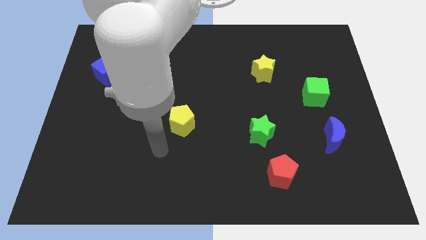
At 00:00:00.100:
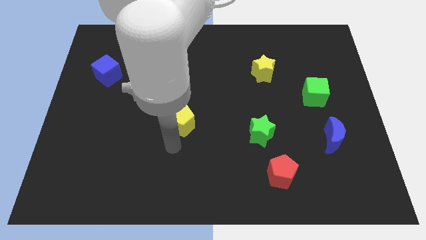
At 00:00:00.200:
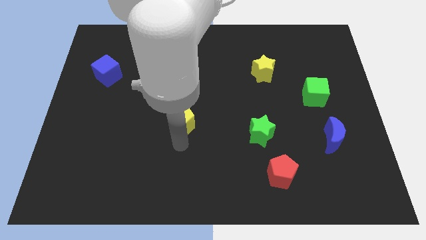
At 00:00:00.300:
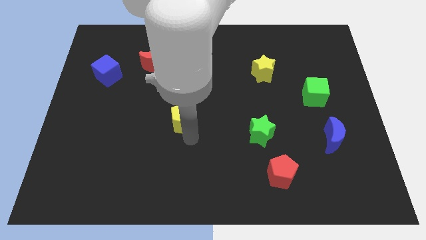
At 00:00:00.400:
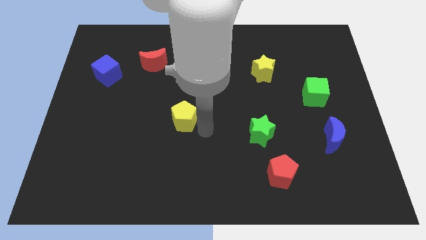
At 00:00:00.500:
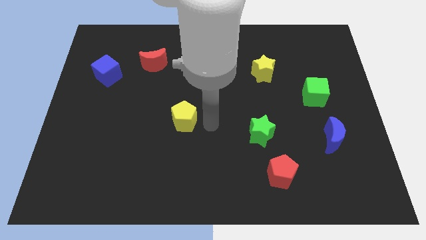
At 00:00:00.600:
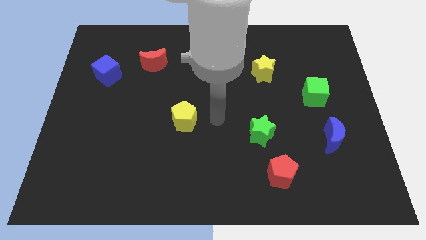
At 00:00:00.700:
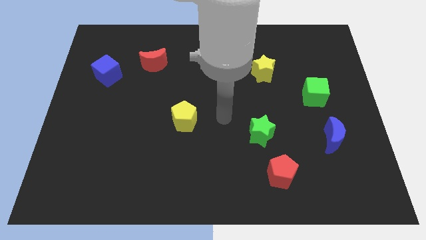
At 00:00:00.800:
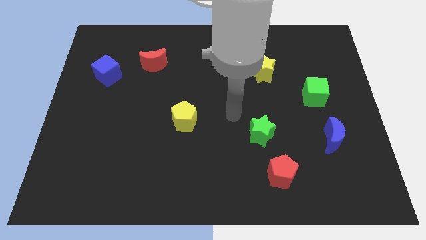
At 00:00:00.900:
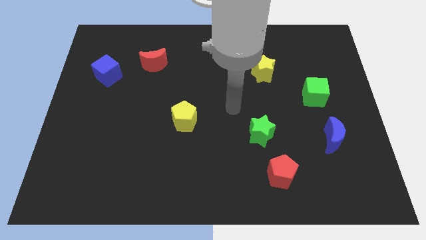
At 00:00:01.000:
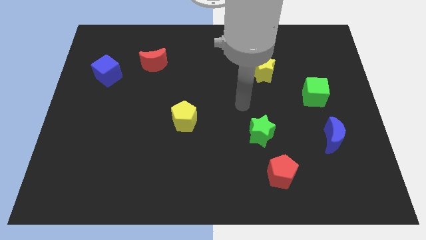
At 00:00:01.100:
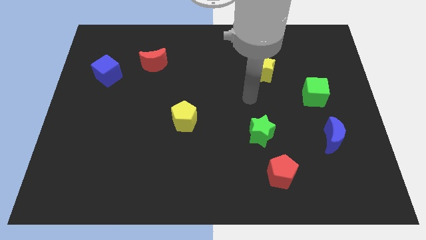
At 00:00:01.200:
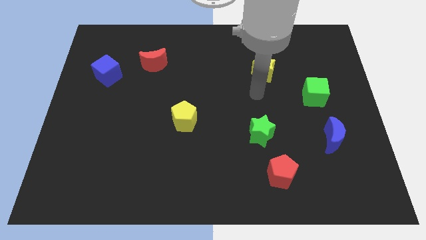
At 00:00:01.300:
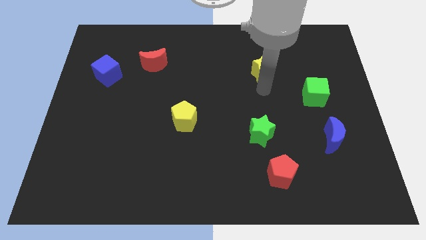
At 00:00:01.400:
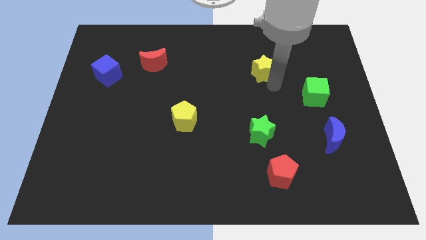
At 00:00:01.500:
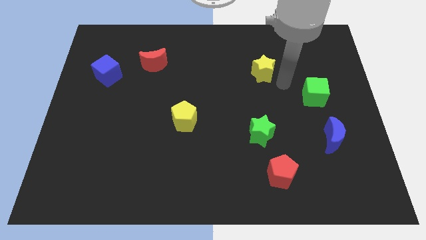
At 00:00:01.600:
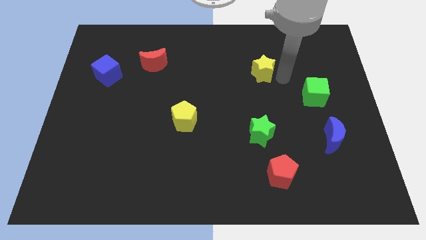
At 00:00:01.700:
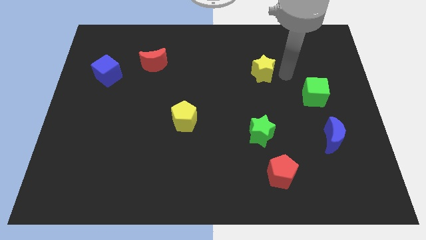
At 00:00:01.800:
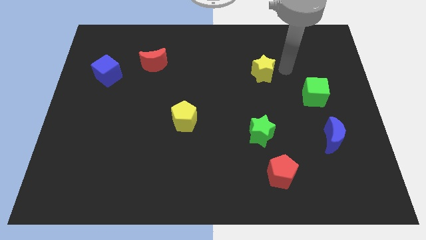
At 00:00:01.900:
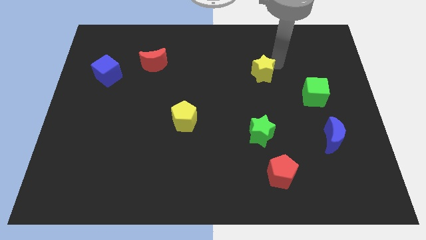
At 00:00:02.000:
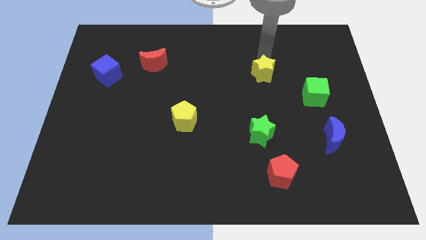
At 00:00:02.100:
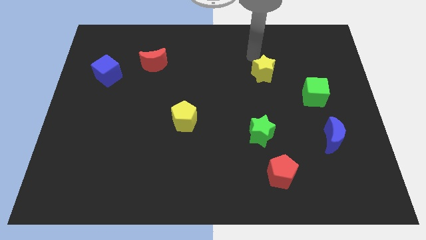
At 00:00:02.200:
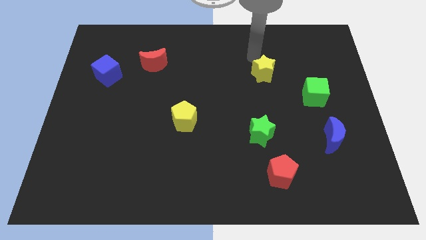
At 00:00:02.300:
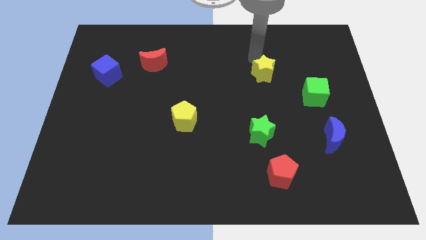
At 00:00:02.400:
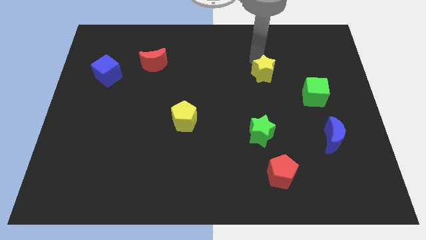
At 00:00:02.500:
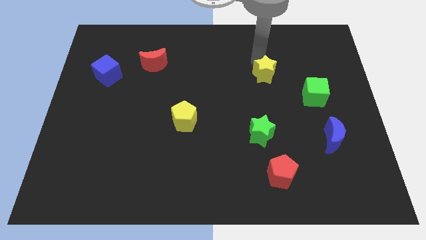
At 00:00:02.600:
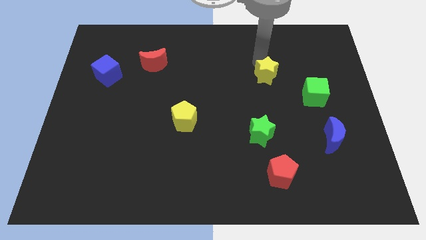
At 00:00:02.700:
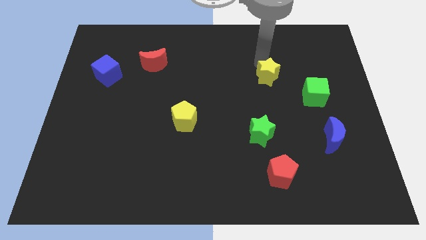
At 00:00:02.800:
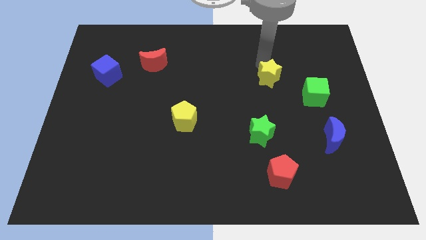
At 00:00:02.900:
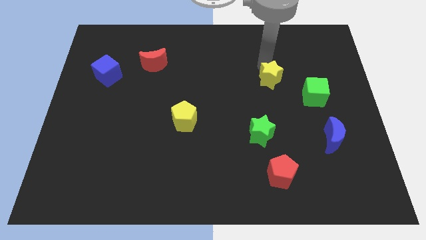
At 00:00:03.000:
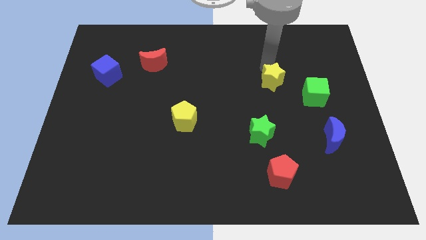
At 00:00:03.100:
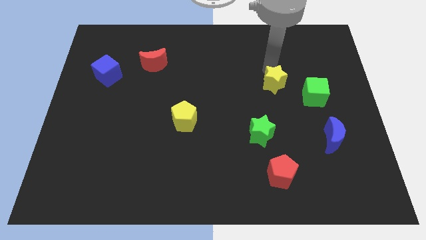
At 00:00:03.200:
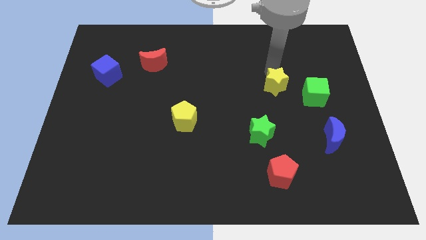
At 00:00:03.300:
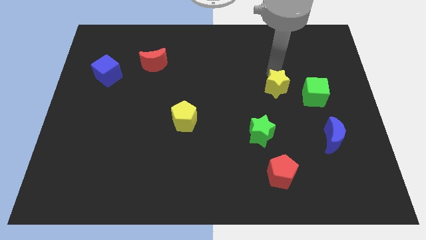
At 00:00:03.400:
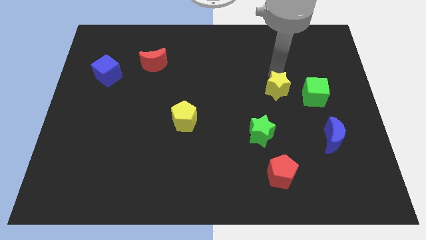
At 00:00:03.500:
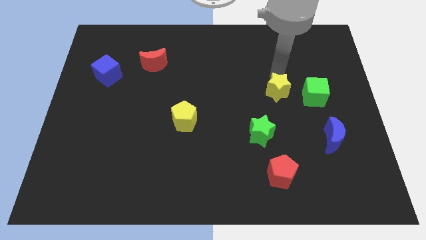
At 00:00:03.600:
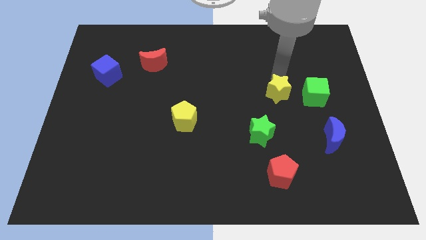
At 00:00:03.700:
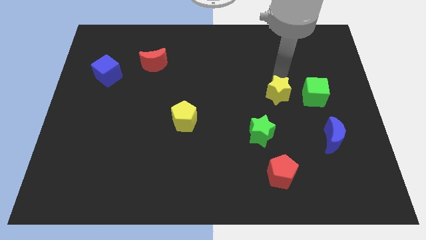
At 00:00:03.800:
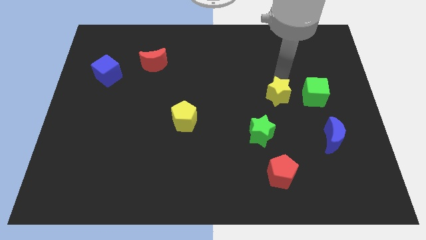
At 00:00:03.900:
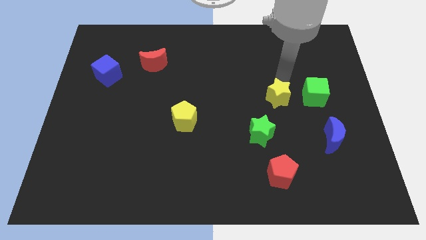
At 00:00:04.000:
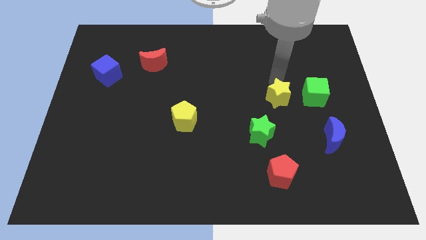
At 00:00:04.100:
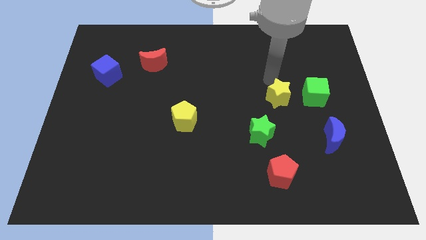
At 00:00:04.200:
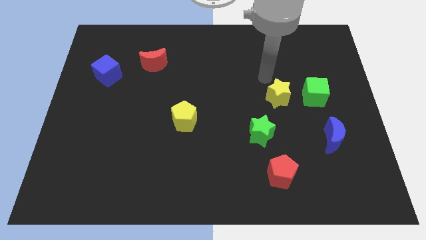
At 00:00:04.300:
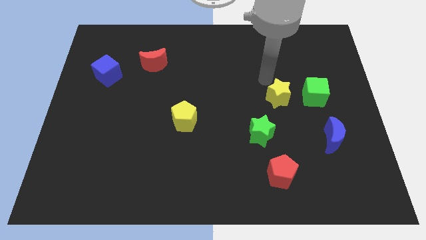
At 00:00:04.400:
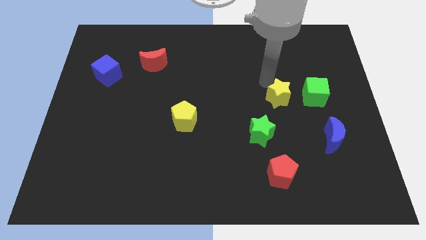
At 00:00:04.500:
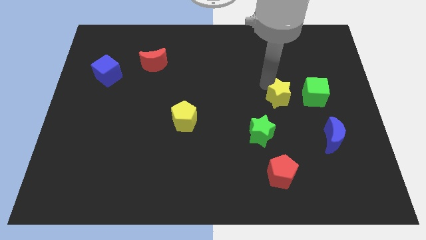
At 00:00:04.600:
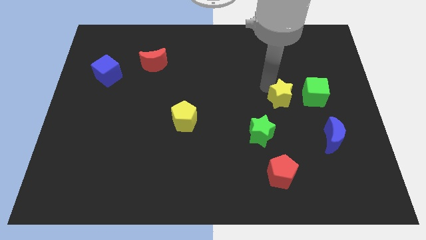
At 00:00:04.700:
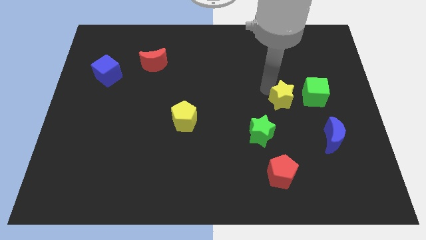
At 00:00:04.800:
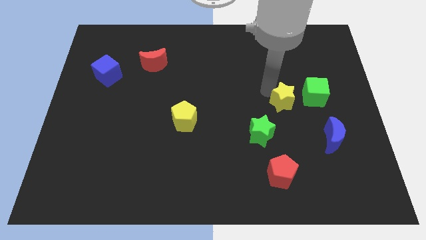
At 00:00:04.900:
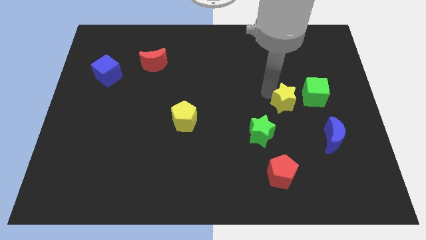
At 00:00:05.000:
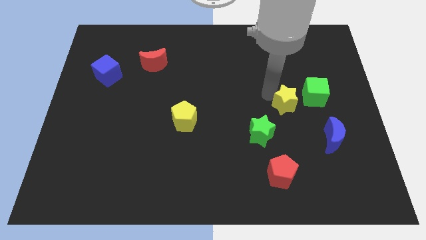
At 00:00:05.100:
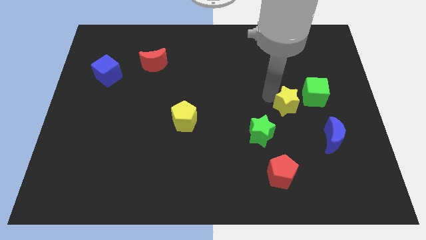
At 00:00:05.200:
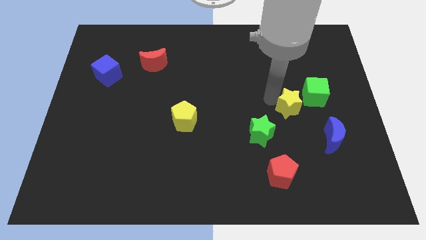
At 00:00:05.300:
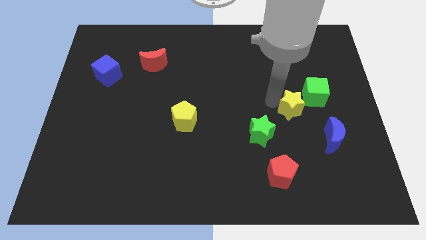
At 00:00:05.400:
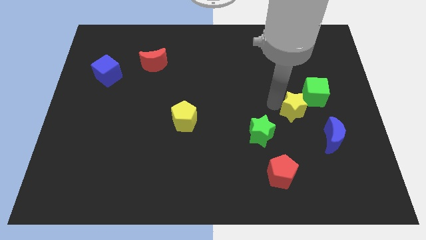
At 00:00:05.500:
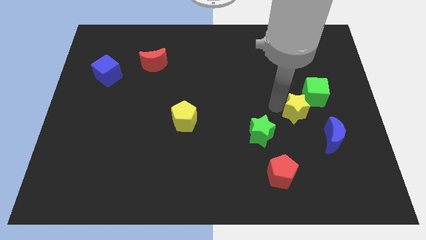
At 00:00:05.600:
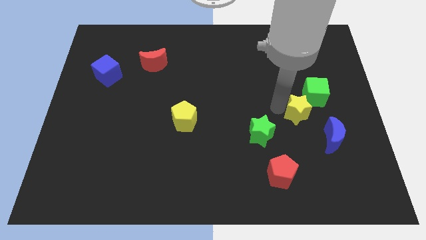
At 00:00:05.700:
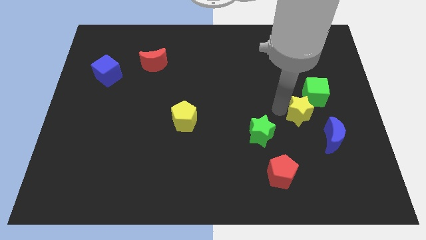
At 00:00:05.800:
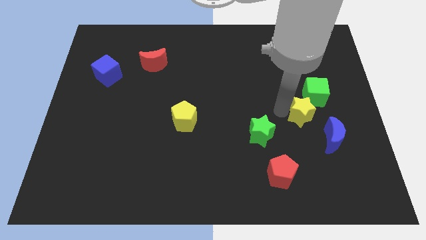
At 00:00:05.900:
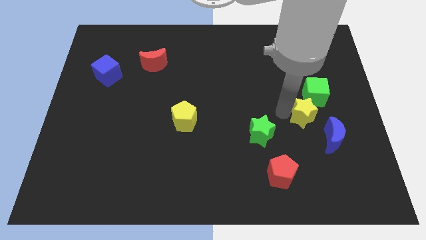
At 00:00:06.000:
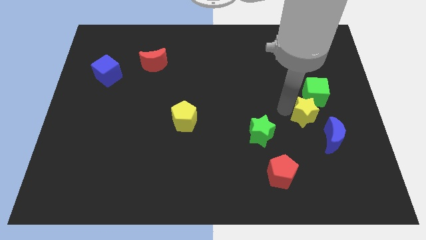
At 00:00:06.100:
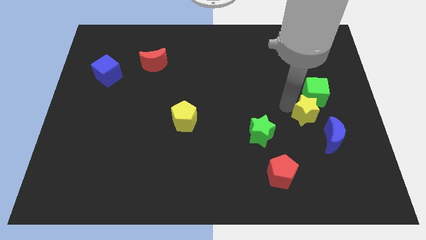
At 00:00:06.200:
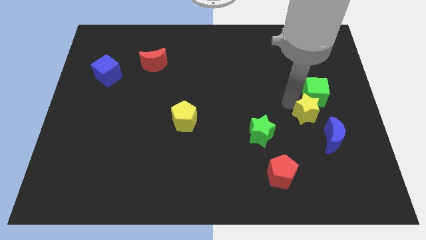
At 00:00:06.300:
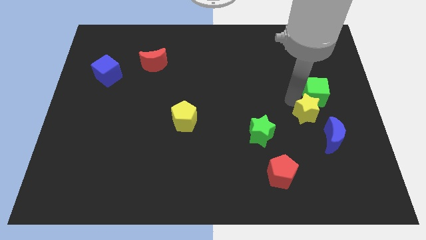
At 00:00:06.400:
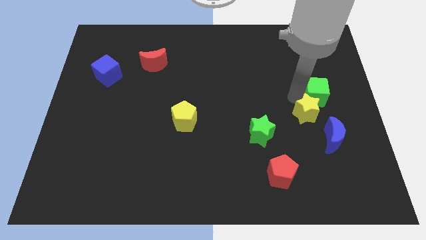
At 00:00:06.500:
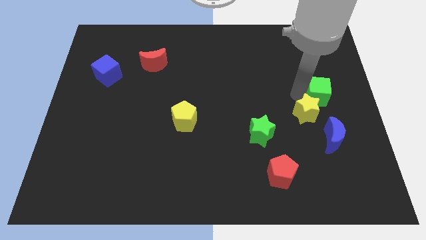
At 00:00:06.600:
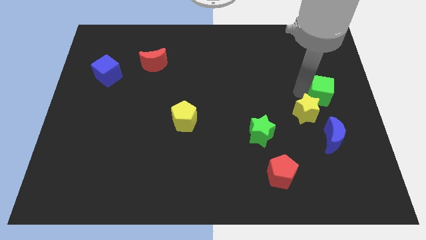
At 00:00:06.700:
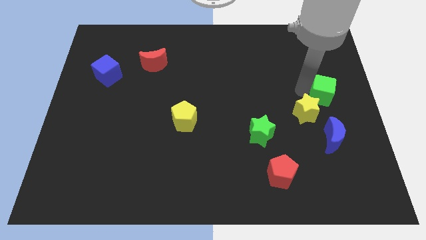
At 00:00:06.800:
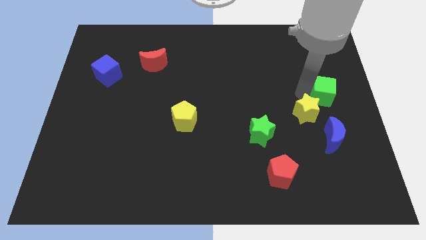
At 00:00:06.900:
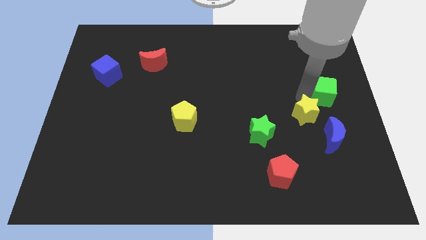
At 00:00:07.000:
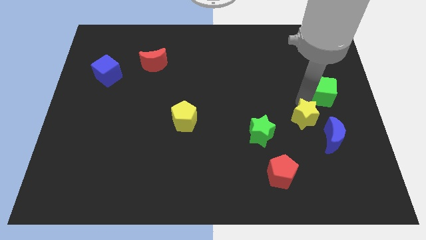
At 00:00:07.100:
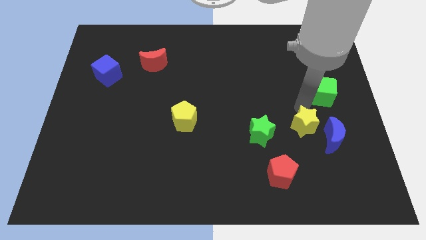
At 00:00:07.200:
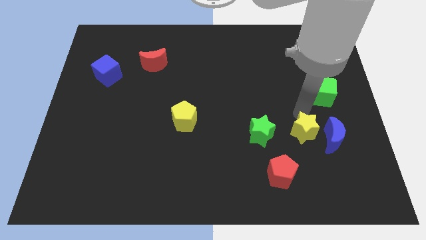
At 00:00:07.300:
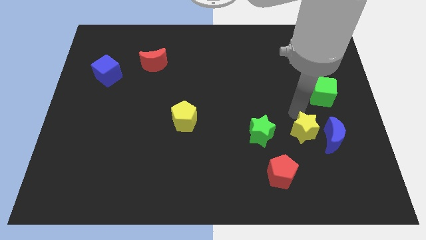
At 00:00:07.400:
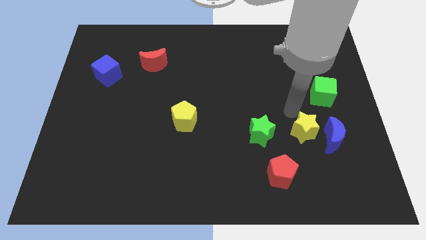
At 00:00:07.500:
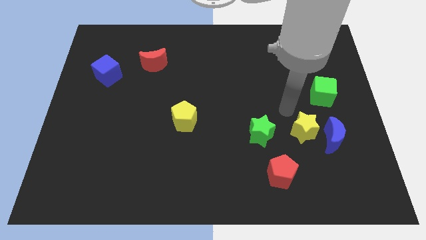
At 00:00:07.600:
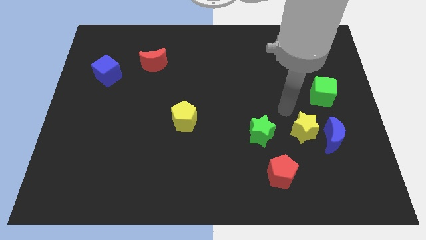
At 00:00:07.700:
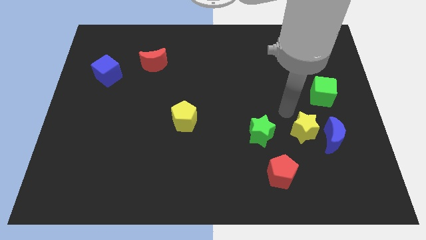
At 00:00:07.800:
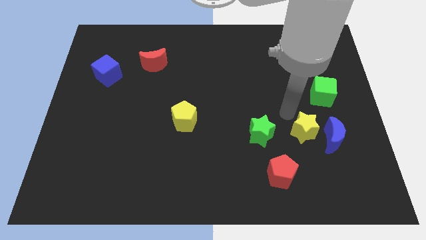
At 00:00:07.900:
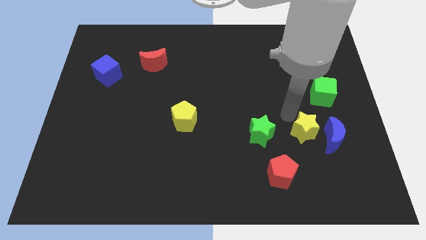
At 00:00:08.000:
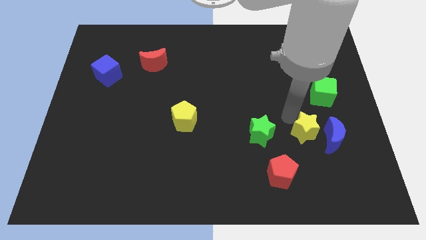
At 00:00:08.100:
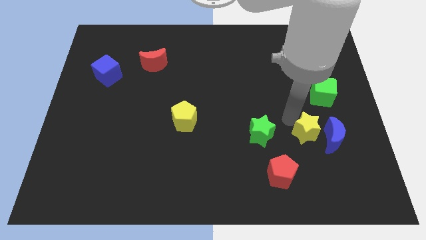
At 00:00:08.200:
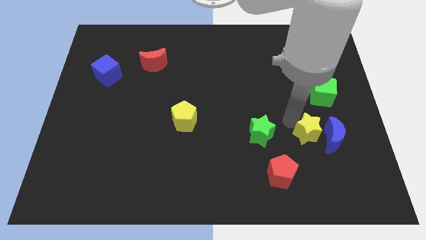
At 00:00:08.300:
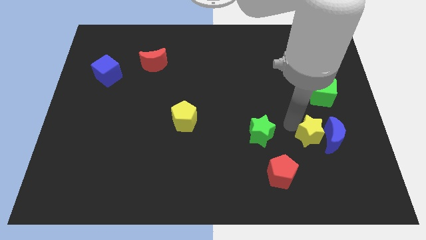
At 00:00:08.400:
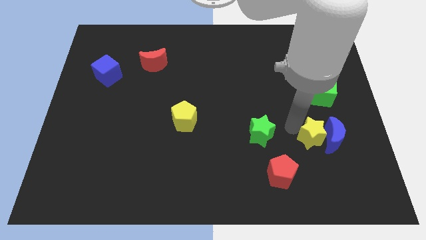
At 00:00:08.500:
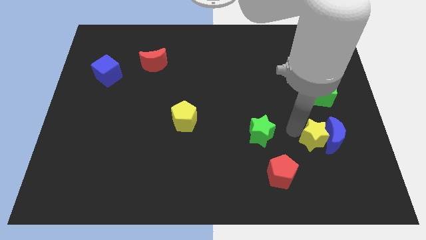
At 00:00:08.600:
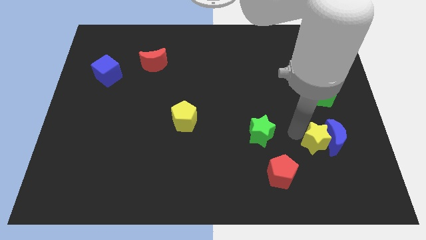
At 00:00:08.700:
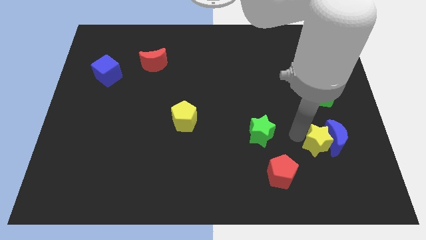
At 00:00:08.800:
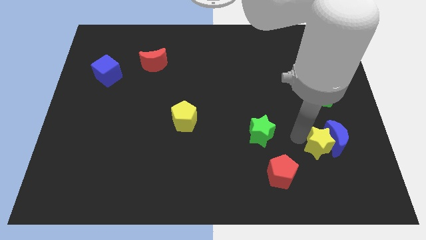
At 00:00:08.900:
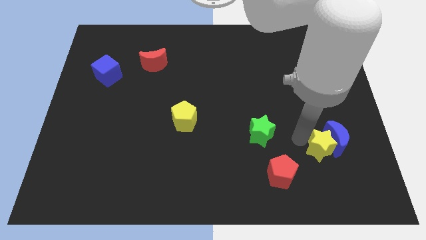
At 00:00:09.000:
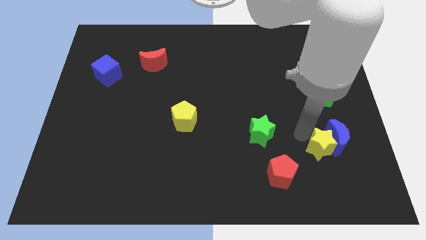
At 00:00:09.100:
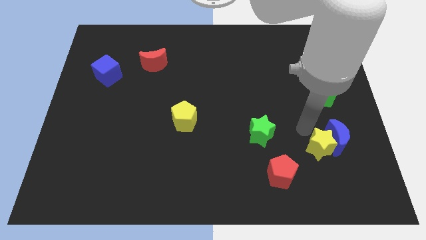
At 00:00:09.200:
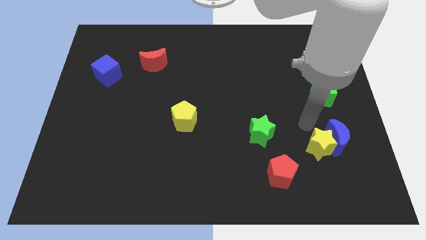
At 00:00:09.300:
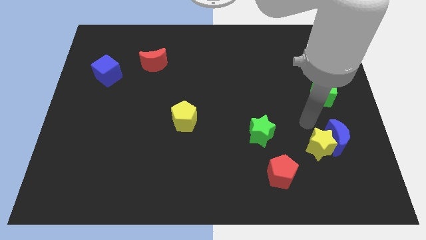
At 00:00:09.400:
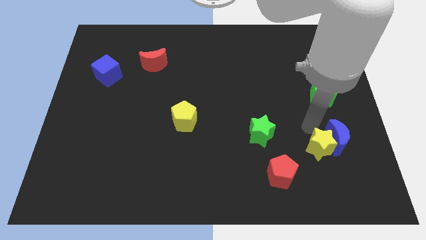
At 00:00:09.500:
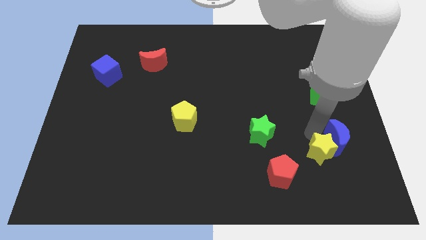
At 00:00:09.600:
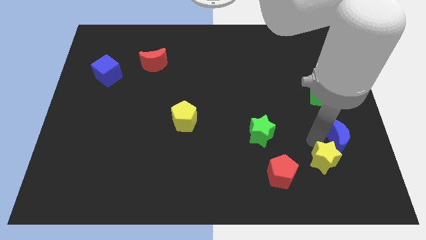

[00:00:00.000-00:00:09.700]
push the yellow star to the right of the red pentagon
